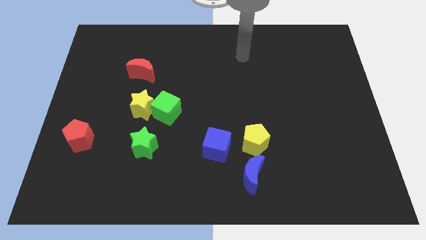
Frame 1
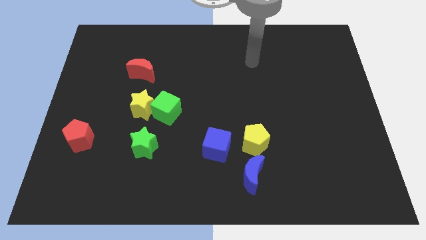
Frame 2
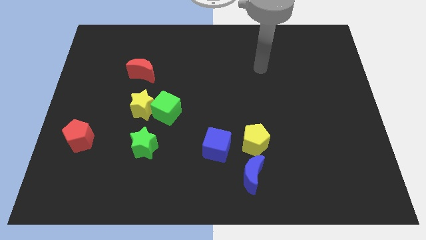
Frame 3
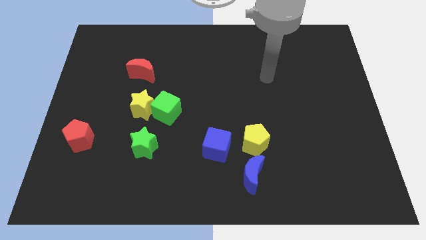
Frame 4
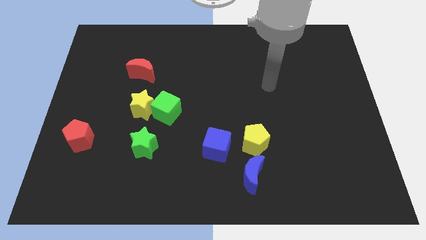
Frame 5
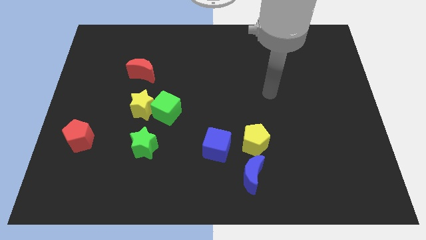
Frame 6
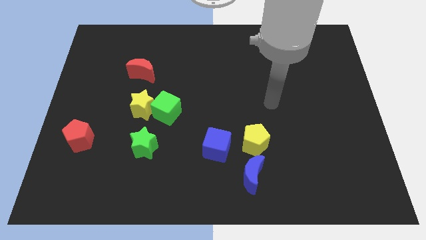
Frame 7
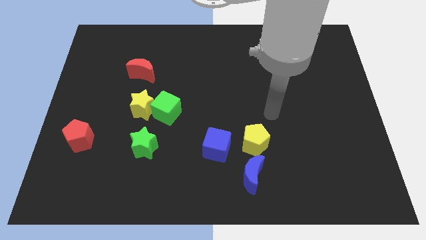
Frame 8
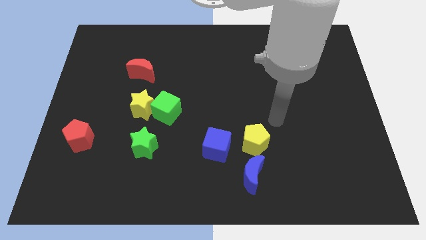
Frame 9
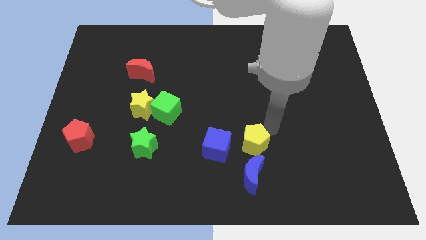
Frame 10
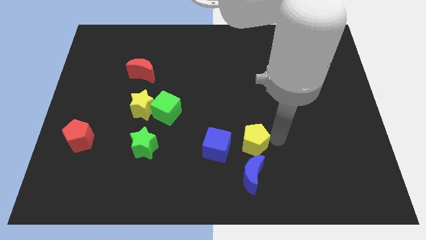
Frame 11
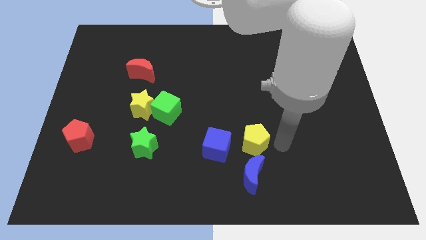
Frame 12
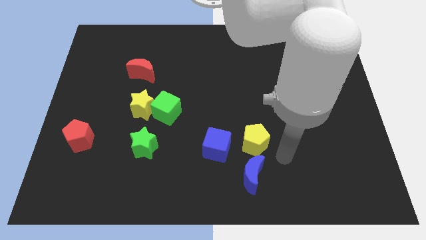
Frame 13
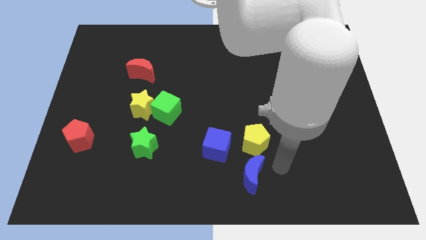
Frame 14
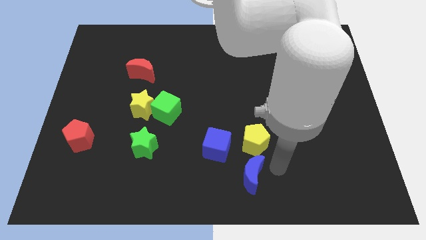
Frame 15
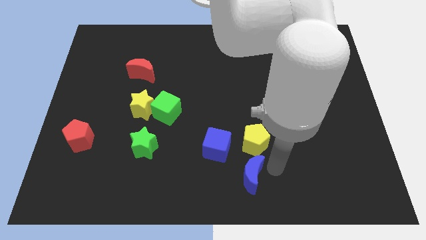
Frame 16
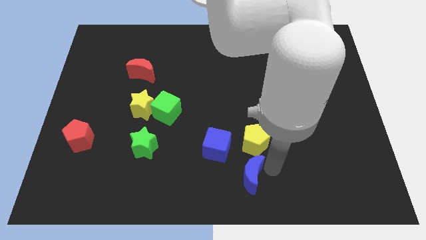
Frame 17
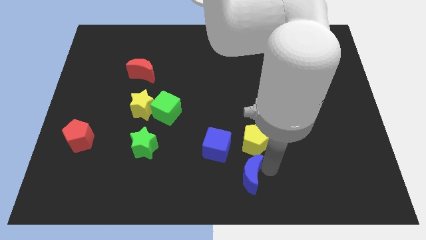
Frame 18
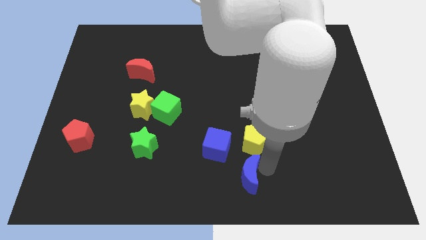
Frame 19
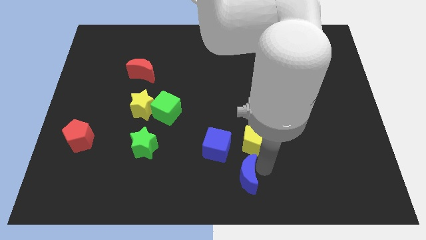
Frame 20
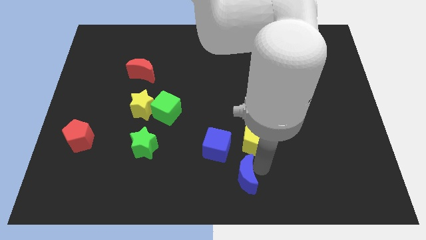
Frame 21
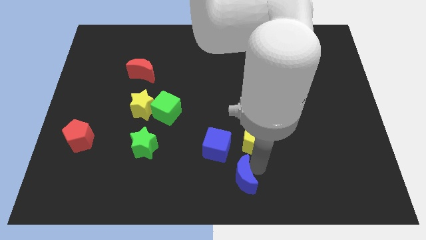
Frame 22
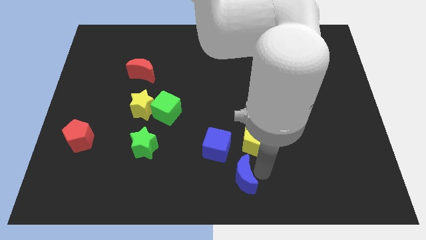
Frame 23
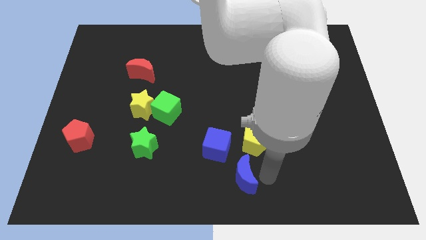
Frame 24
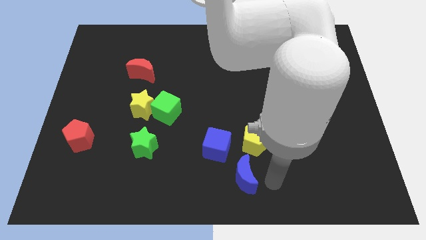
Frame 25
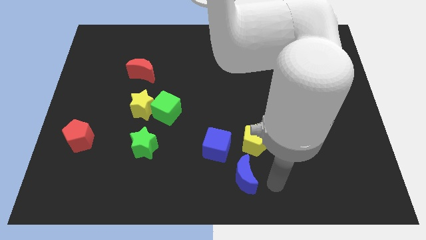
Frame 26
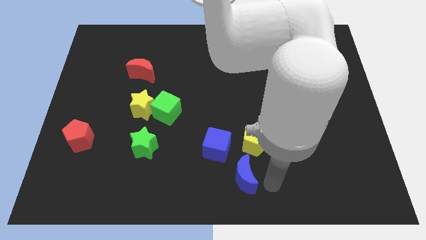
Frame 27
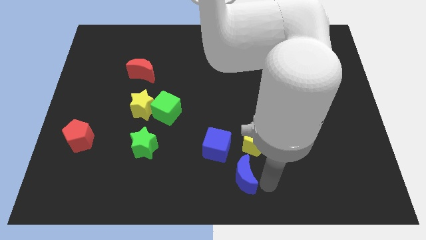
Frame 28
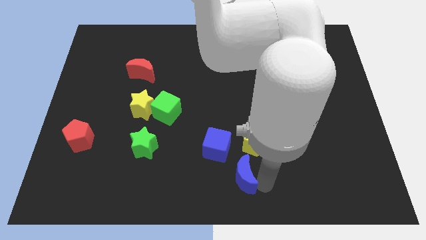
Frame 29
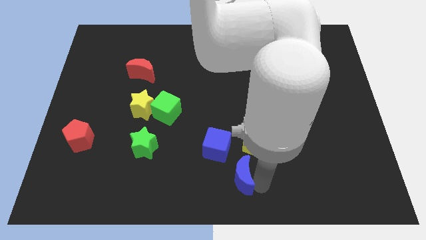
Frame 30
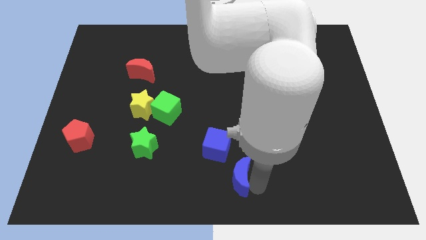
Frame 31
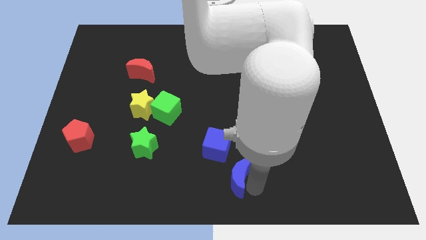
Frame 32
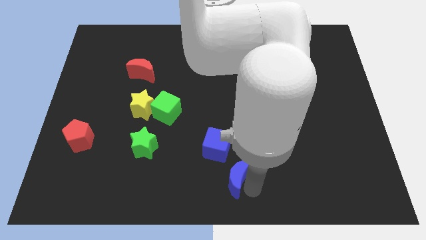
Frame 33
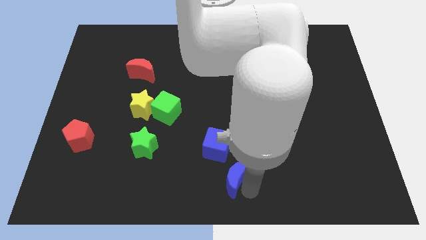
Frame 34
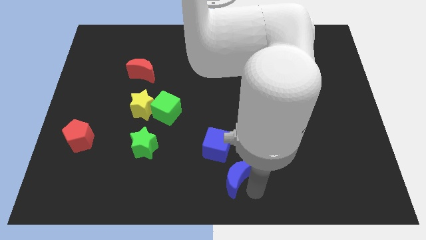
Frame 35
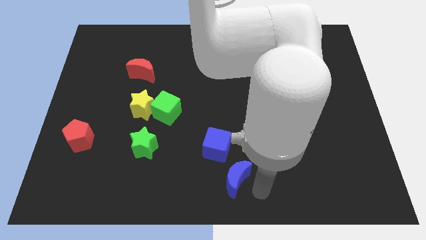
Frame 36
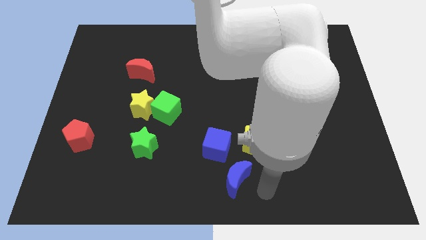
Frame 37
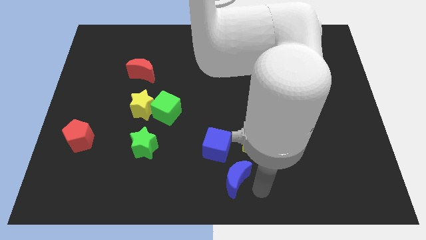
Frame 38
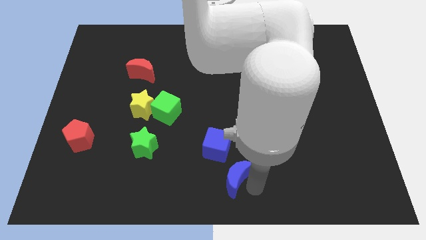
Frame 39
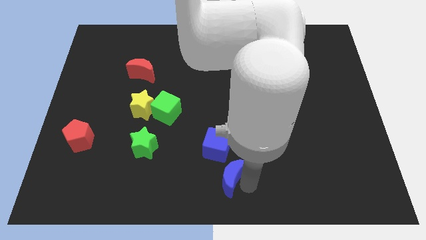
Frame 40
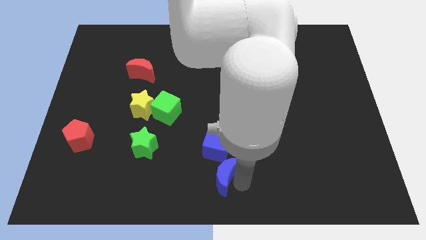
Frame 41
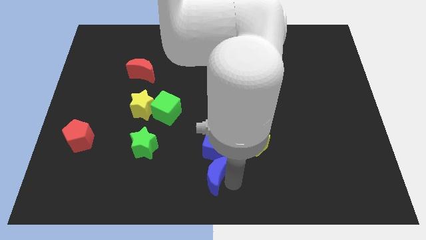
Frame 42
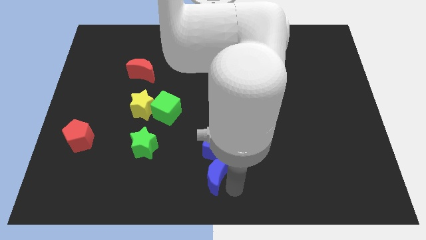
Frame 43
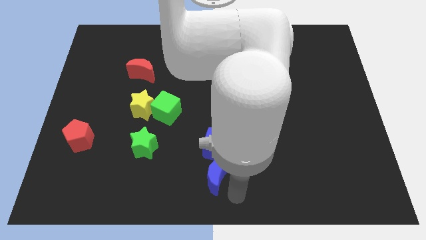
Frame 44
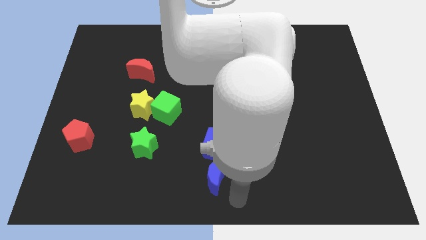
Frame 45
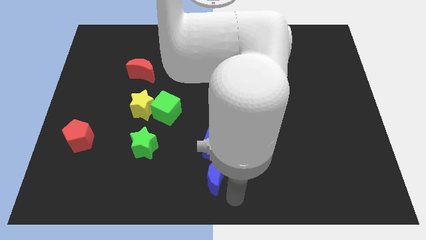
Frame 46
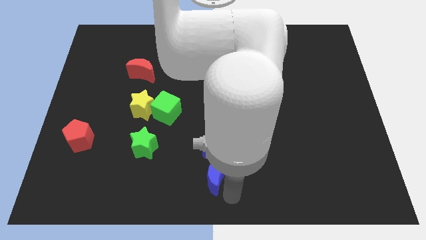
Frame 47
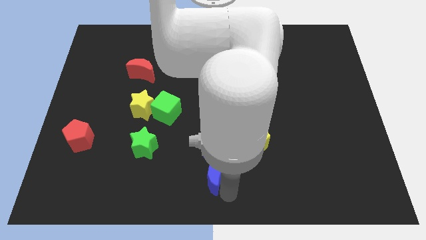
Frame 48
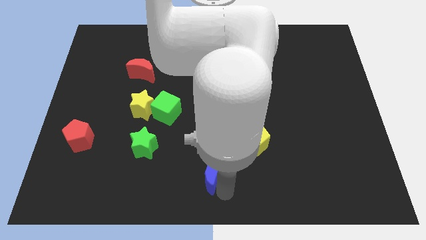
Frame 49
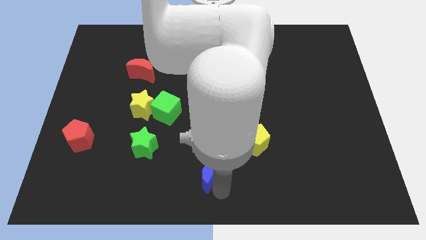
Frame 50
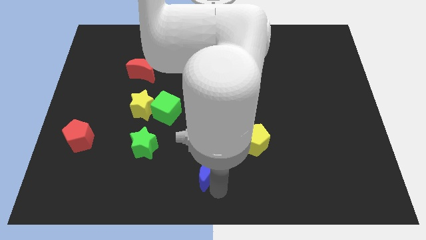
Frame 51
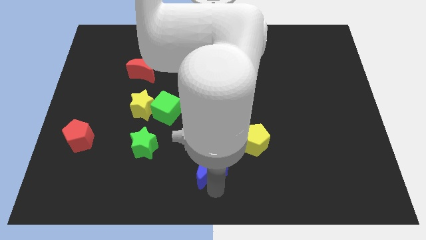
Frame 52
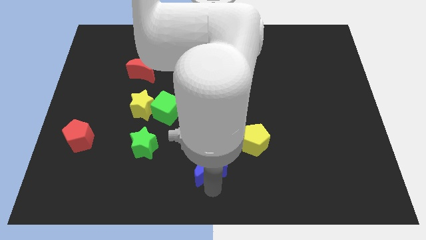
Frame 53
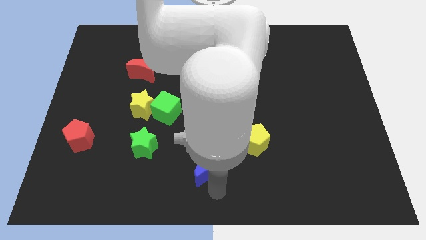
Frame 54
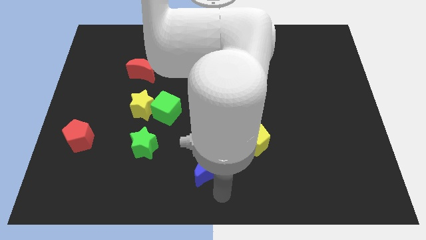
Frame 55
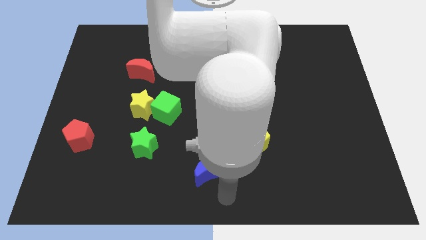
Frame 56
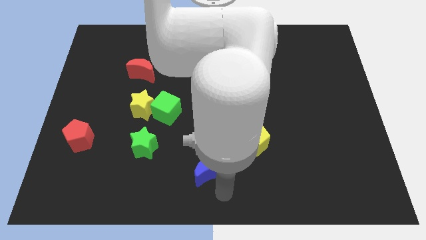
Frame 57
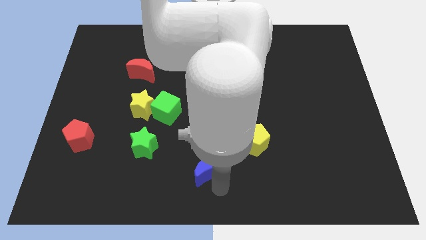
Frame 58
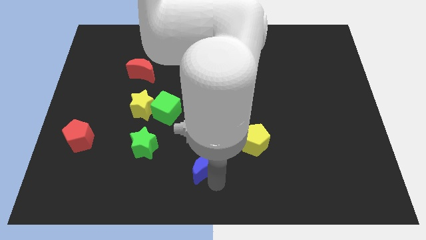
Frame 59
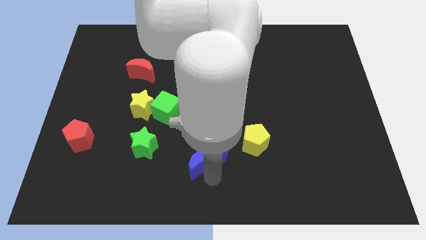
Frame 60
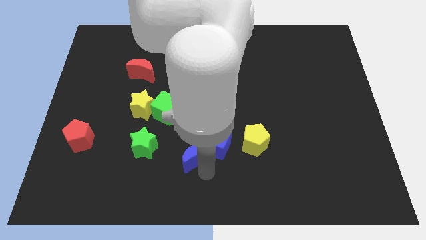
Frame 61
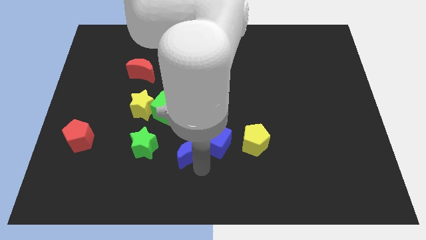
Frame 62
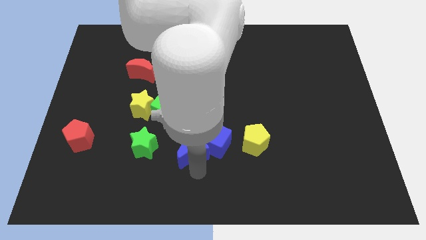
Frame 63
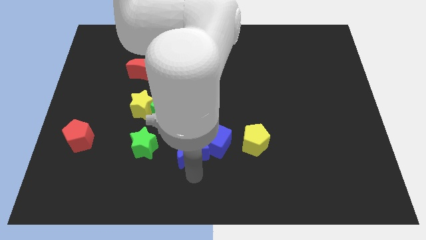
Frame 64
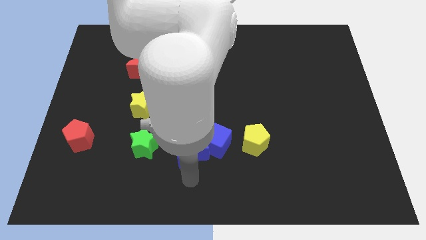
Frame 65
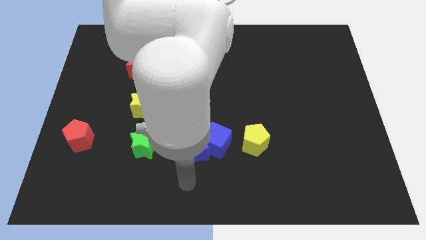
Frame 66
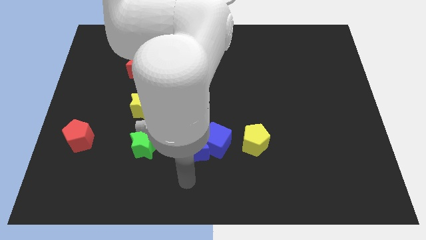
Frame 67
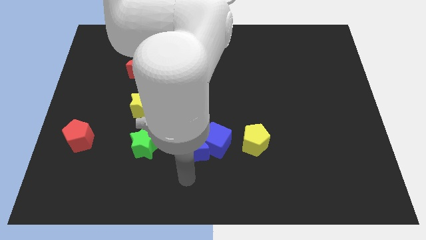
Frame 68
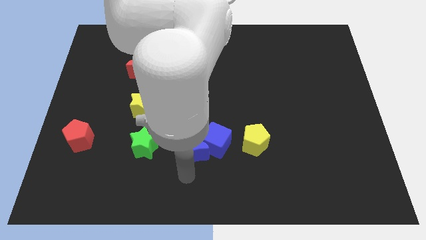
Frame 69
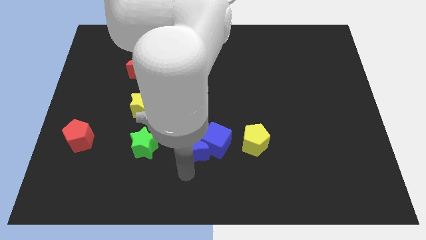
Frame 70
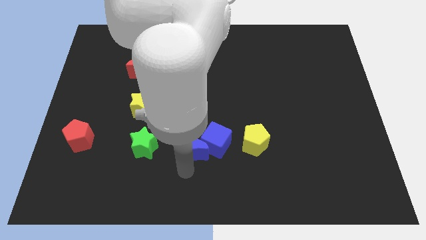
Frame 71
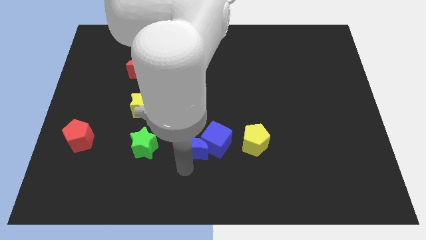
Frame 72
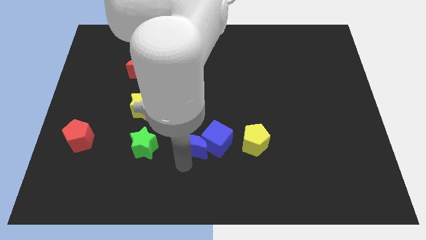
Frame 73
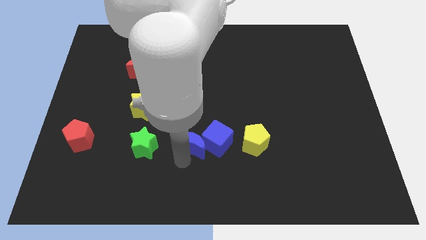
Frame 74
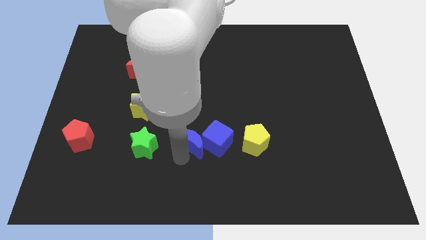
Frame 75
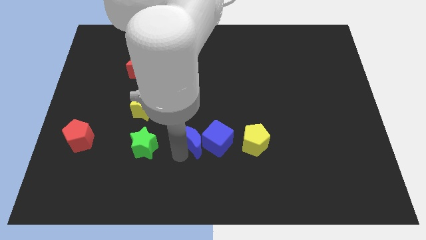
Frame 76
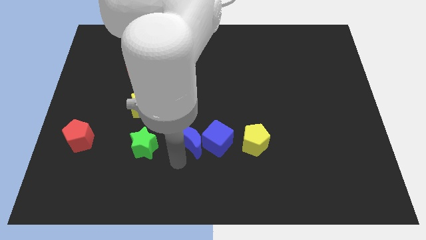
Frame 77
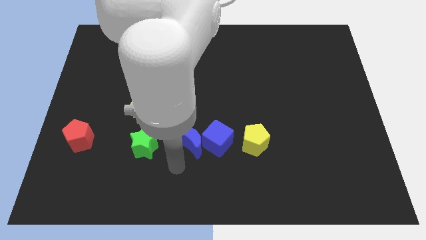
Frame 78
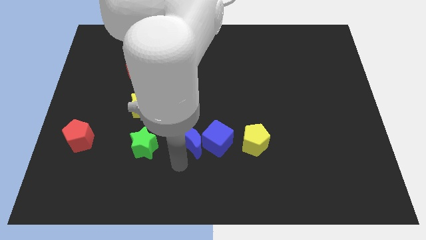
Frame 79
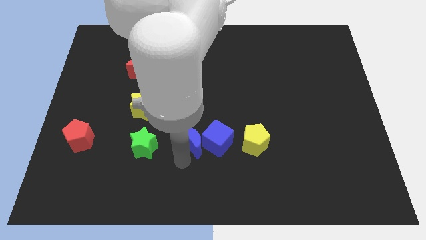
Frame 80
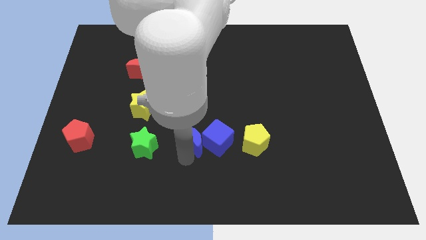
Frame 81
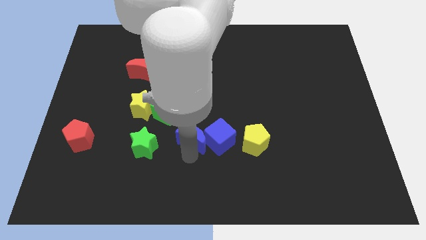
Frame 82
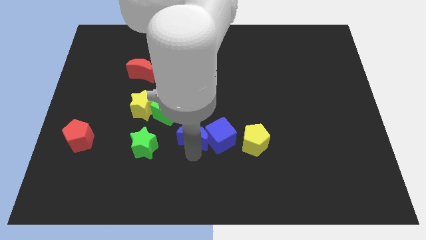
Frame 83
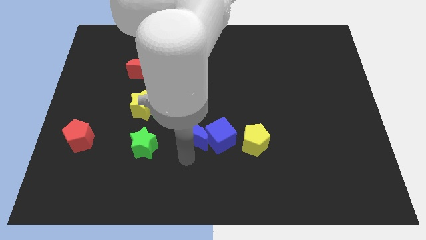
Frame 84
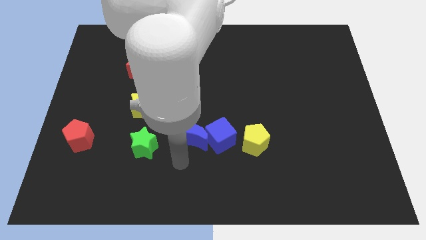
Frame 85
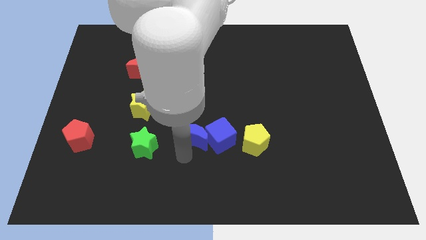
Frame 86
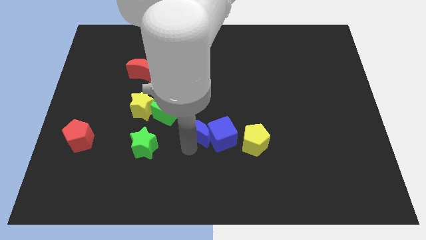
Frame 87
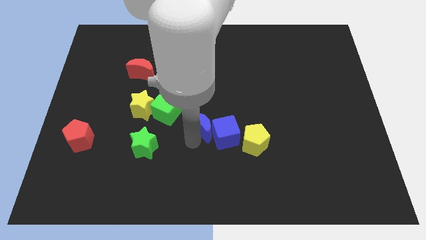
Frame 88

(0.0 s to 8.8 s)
slide the blue moon right of the green cube
